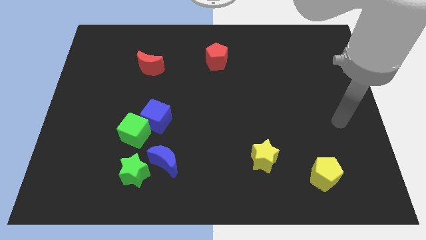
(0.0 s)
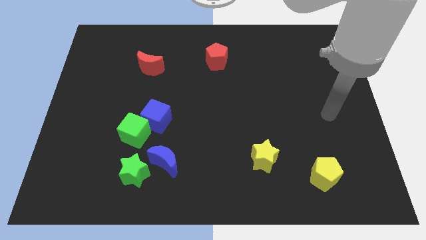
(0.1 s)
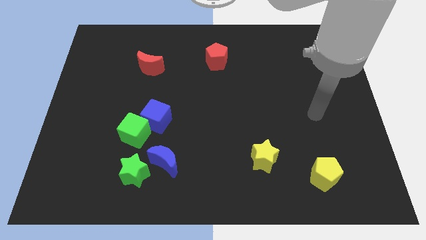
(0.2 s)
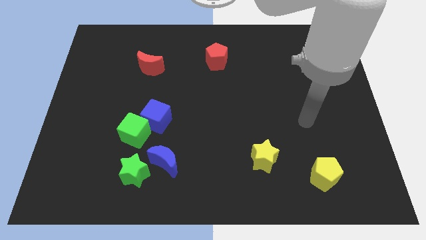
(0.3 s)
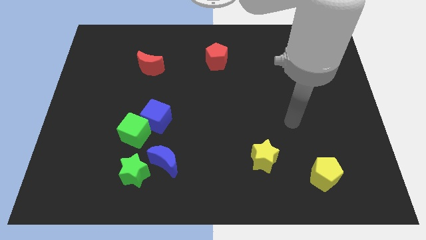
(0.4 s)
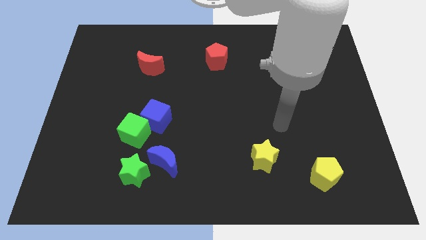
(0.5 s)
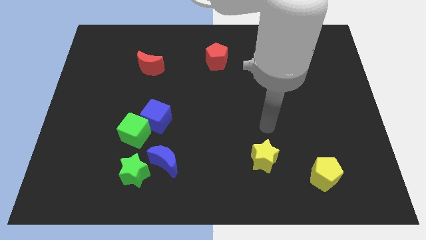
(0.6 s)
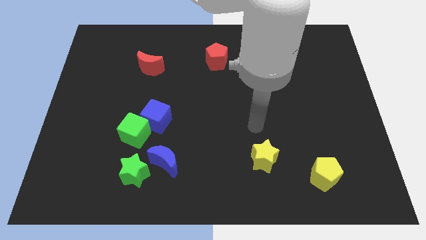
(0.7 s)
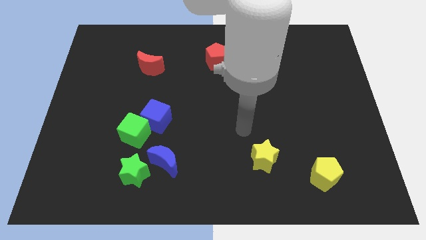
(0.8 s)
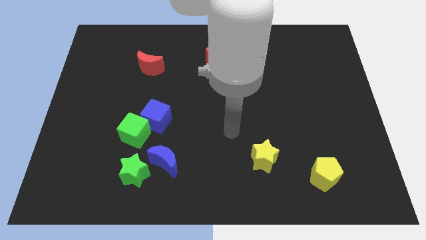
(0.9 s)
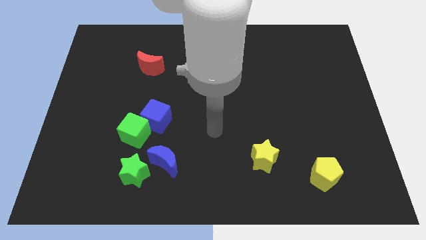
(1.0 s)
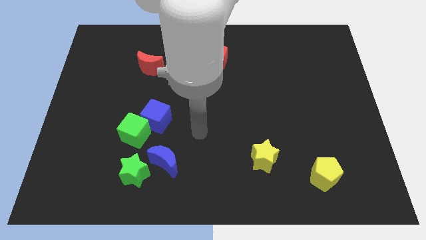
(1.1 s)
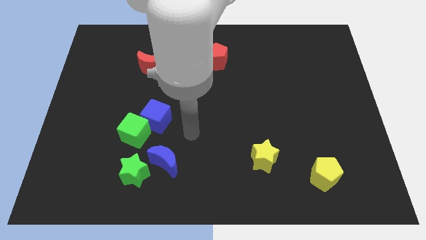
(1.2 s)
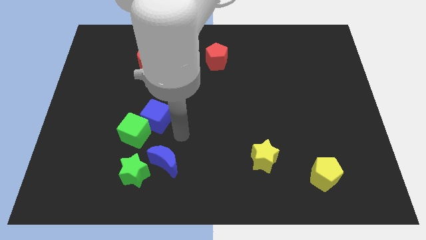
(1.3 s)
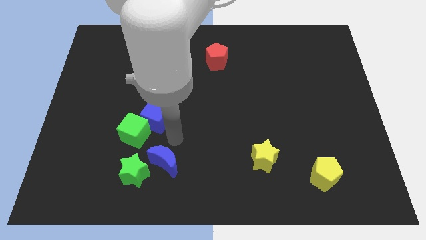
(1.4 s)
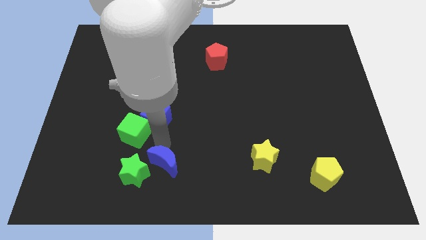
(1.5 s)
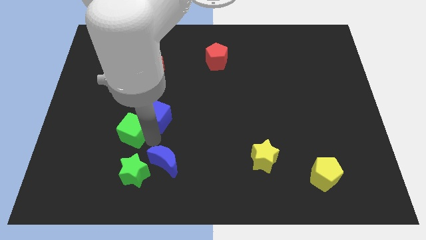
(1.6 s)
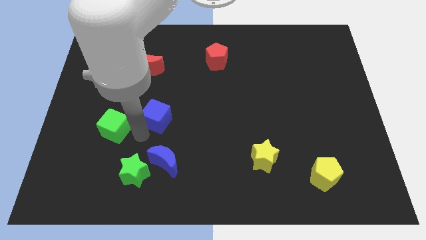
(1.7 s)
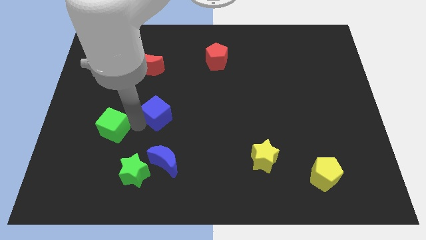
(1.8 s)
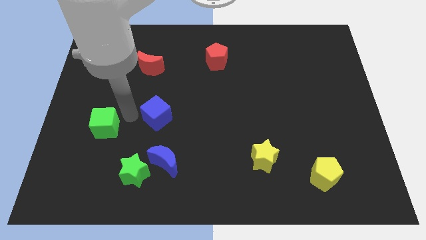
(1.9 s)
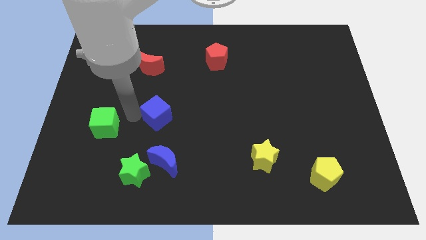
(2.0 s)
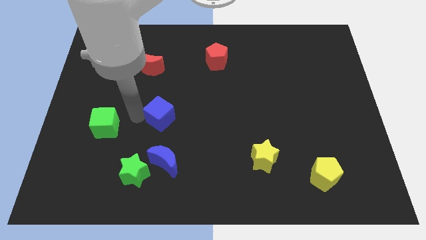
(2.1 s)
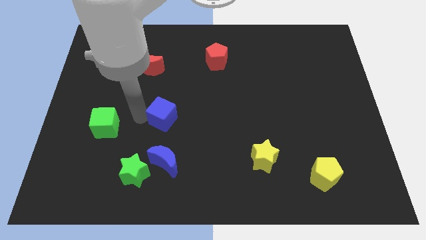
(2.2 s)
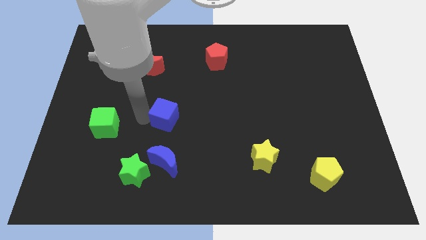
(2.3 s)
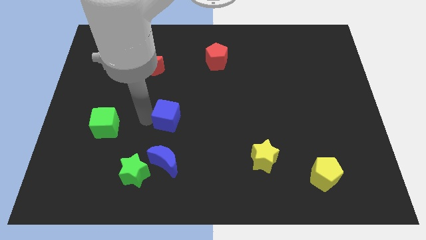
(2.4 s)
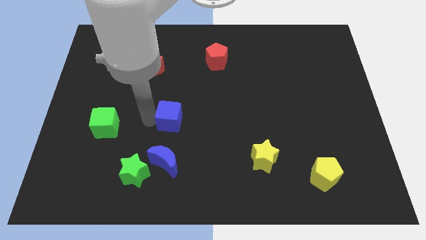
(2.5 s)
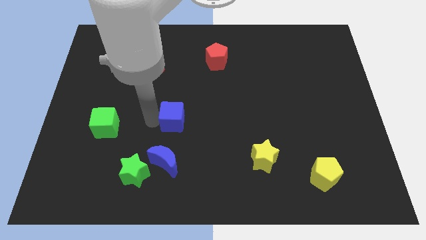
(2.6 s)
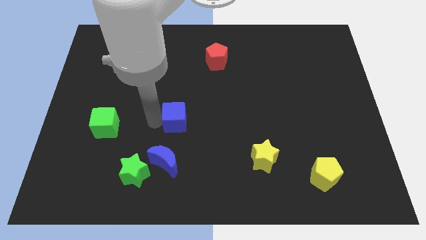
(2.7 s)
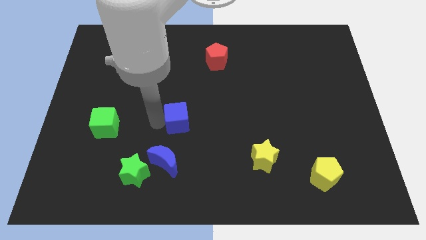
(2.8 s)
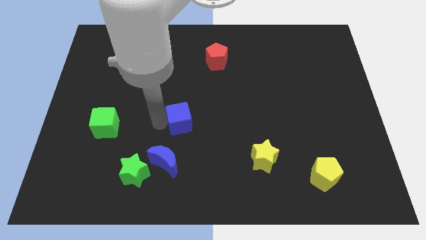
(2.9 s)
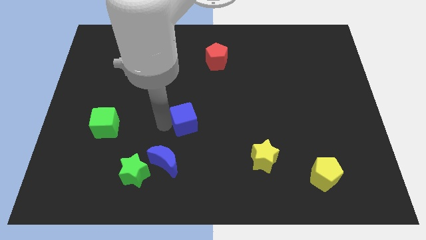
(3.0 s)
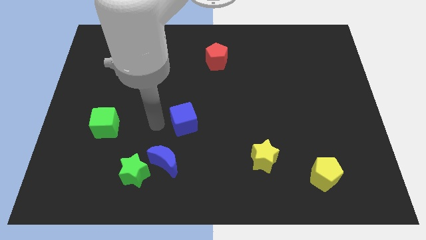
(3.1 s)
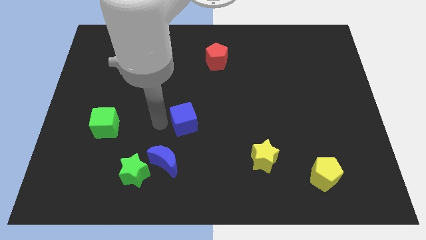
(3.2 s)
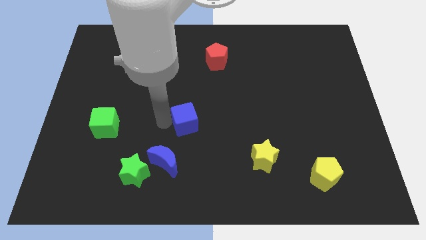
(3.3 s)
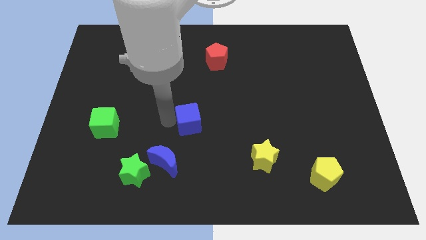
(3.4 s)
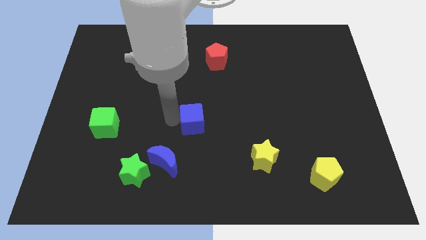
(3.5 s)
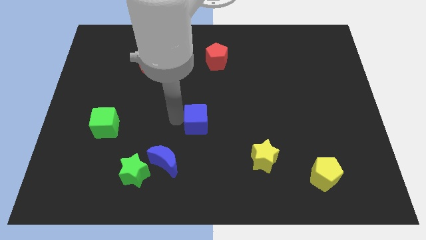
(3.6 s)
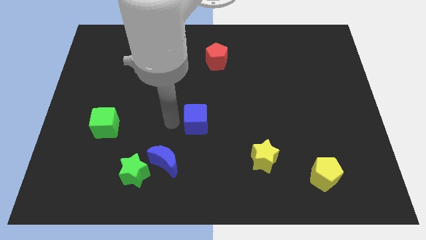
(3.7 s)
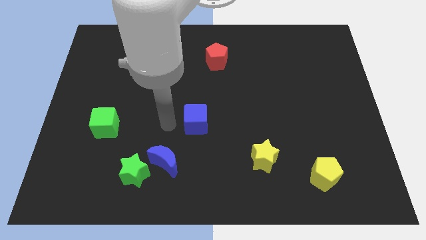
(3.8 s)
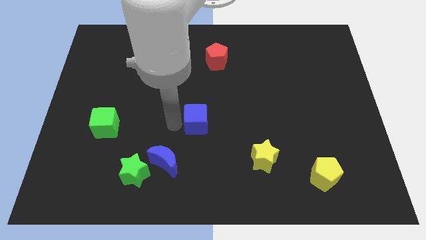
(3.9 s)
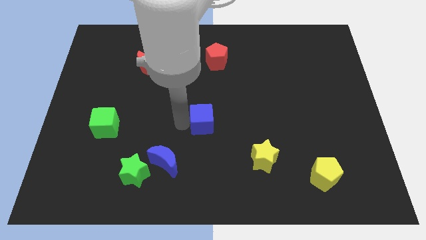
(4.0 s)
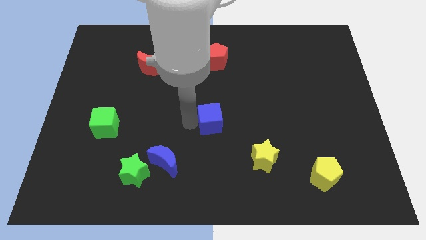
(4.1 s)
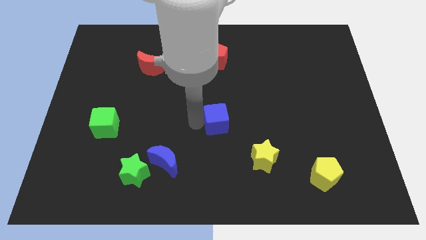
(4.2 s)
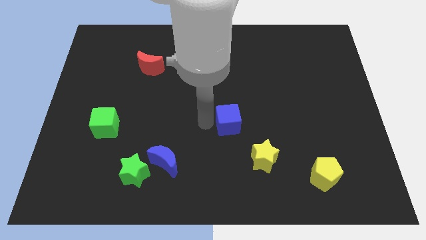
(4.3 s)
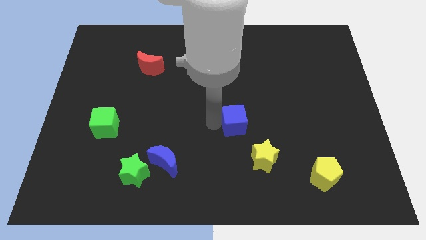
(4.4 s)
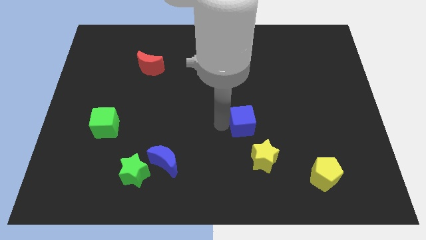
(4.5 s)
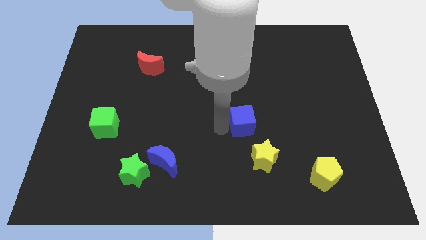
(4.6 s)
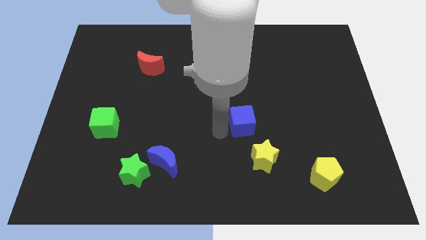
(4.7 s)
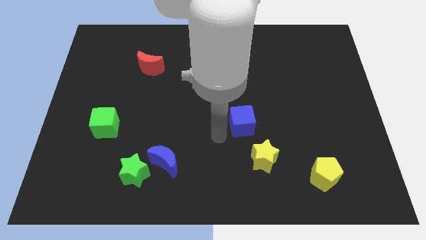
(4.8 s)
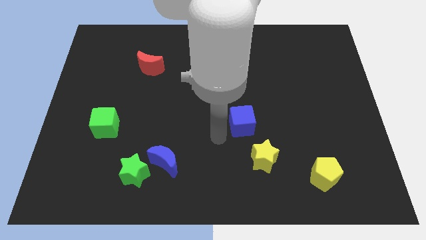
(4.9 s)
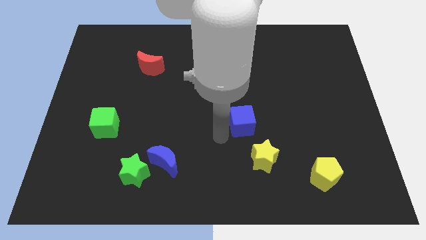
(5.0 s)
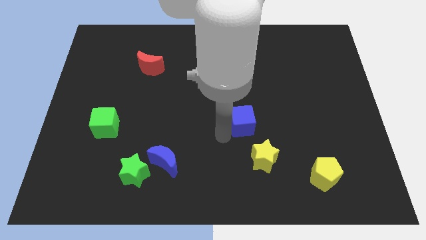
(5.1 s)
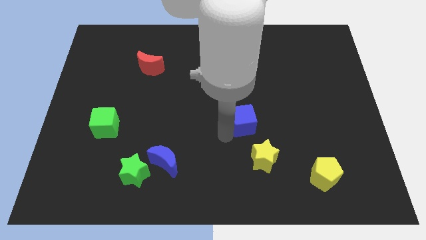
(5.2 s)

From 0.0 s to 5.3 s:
move the blue cube to the right

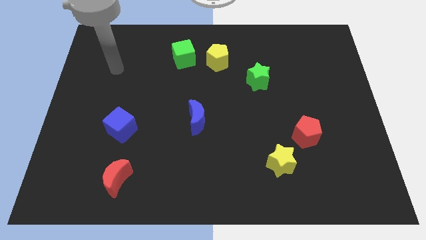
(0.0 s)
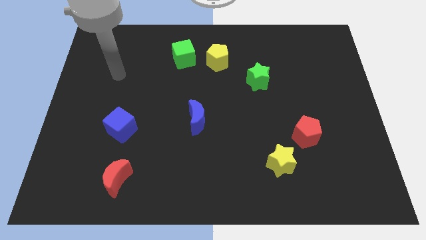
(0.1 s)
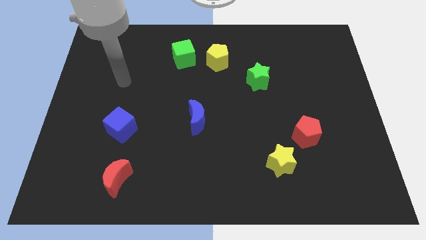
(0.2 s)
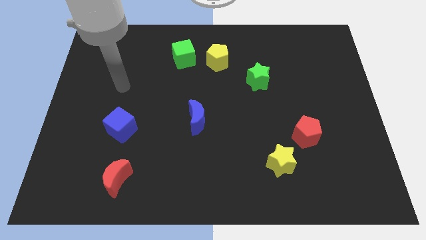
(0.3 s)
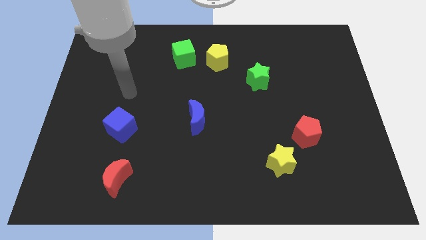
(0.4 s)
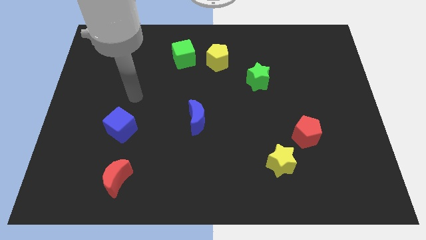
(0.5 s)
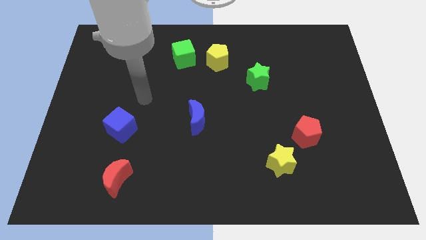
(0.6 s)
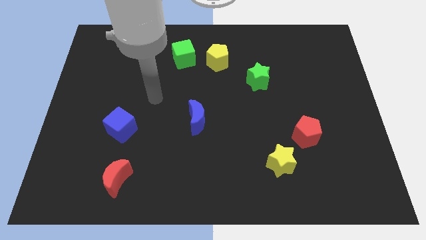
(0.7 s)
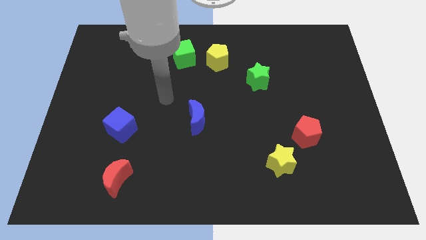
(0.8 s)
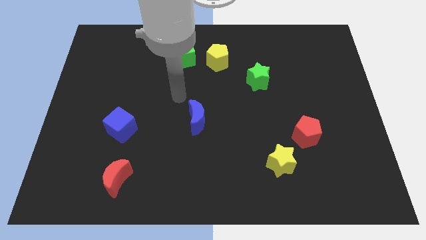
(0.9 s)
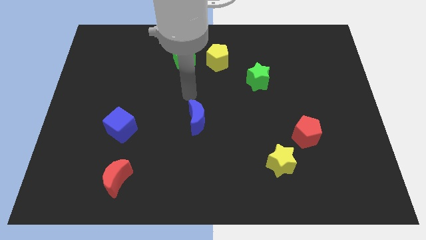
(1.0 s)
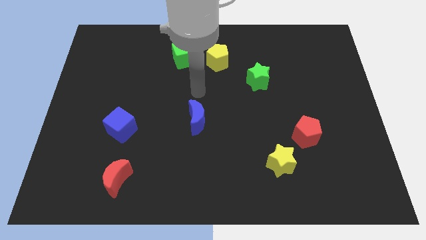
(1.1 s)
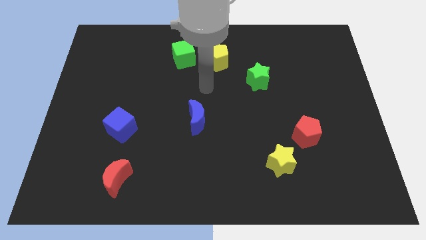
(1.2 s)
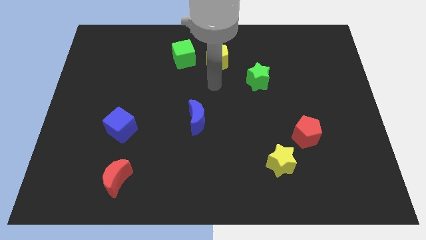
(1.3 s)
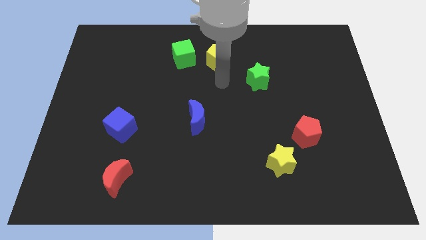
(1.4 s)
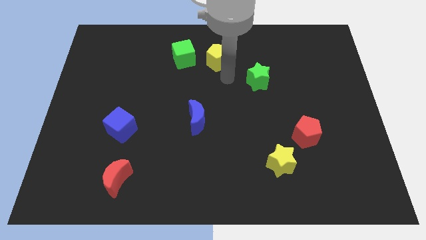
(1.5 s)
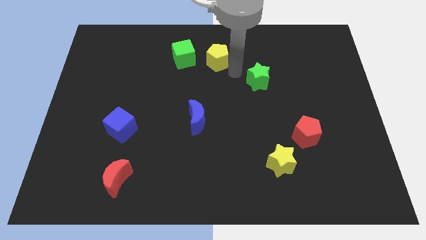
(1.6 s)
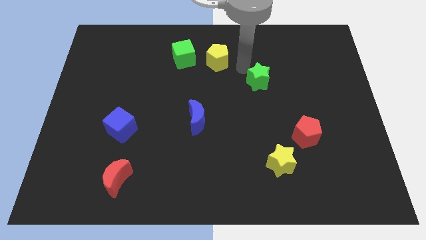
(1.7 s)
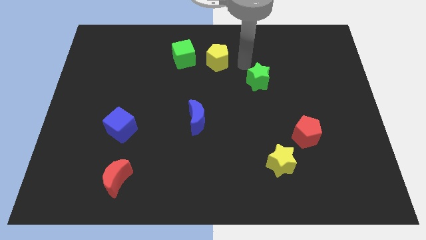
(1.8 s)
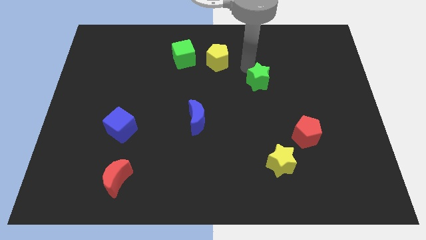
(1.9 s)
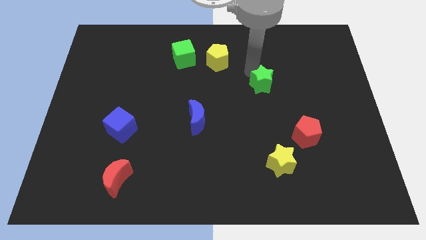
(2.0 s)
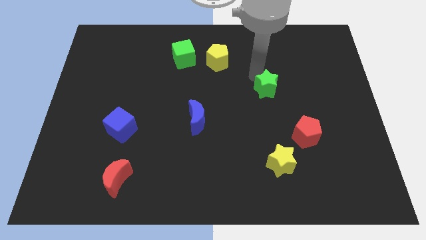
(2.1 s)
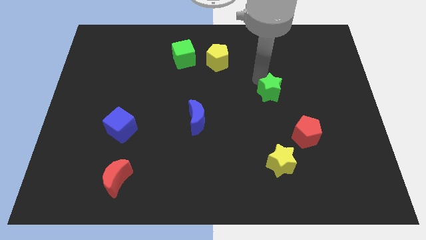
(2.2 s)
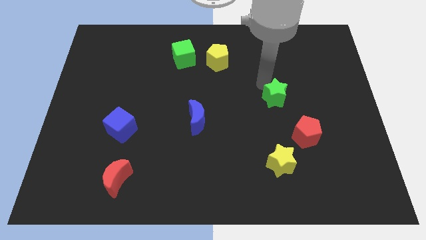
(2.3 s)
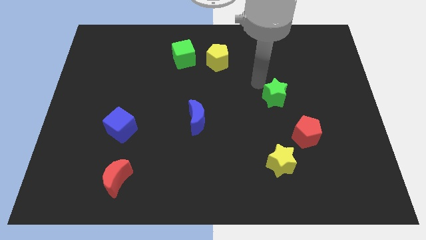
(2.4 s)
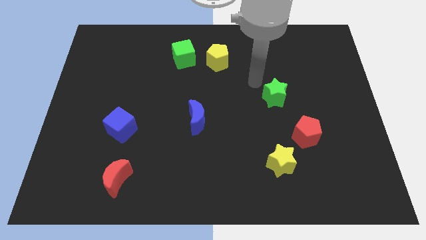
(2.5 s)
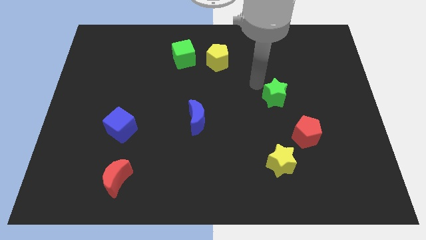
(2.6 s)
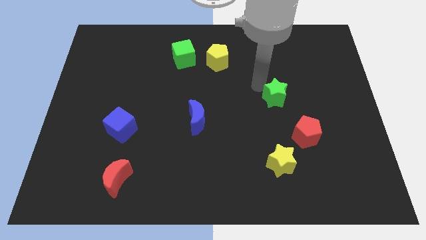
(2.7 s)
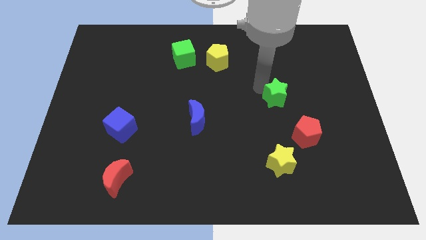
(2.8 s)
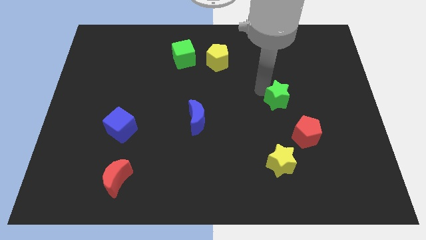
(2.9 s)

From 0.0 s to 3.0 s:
slightly slide the green star down and then right
